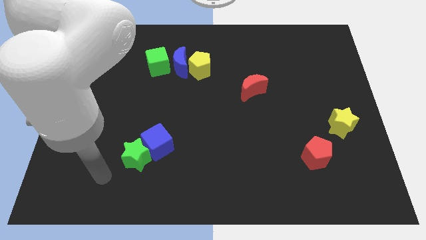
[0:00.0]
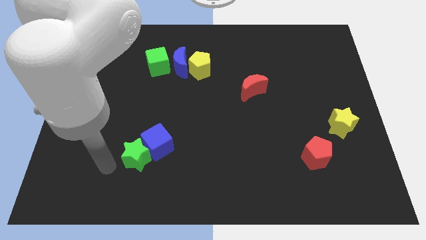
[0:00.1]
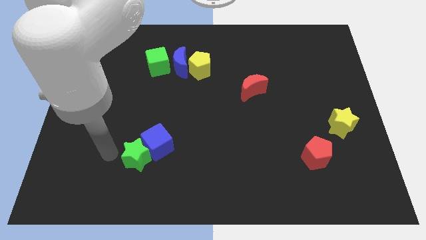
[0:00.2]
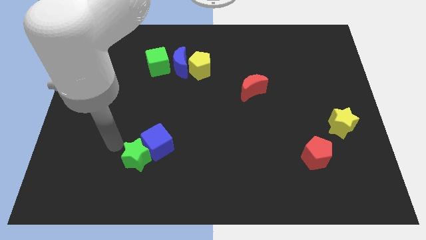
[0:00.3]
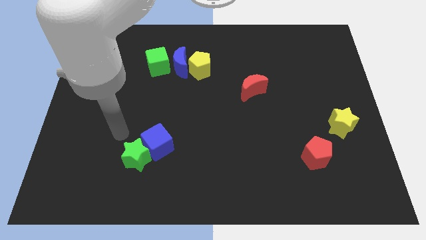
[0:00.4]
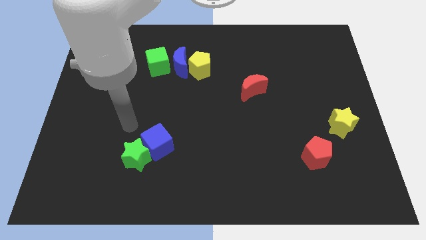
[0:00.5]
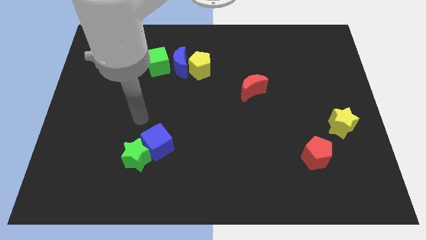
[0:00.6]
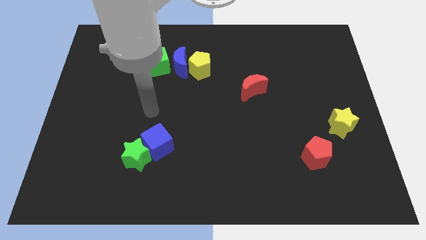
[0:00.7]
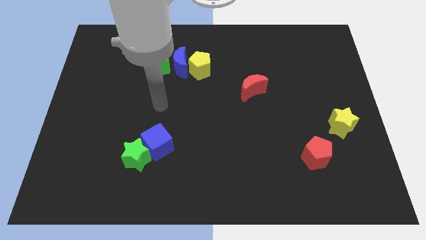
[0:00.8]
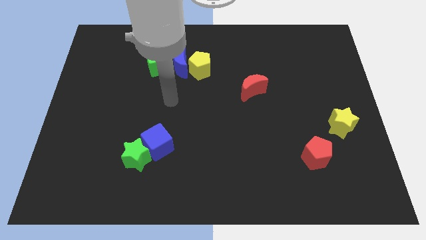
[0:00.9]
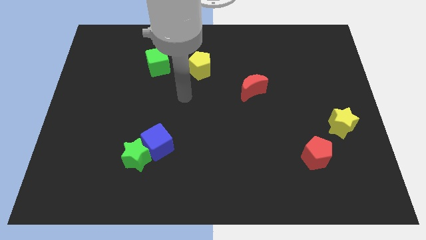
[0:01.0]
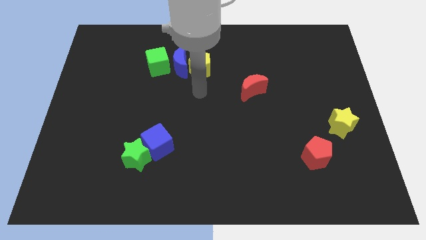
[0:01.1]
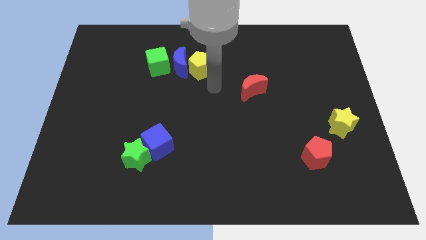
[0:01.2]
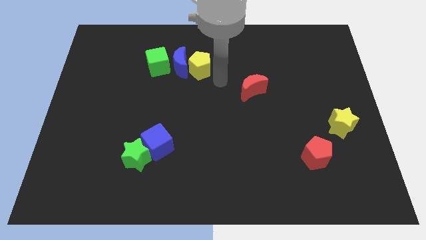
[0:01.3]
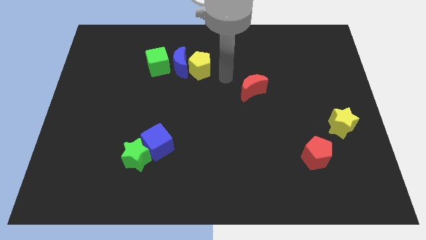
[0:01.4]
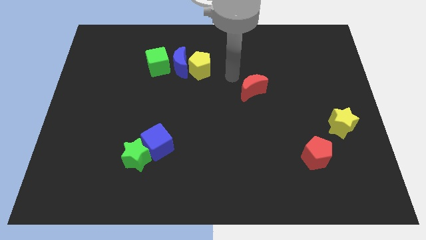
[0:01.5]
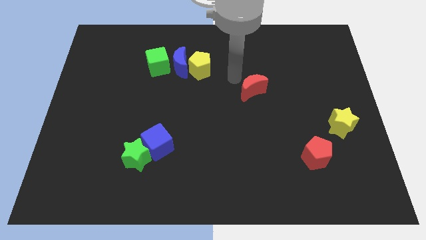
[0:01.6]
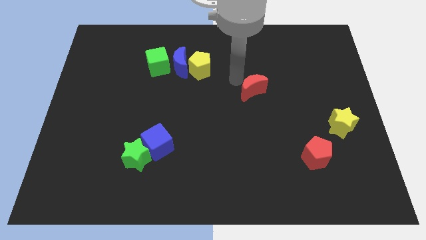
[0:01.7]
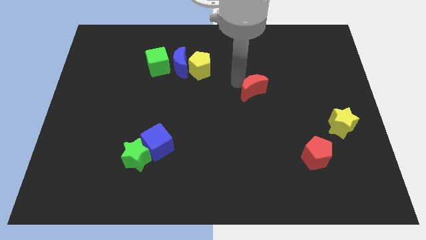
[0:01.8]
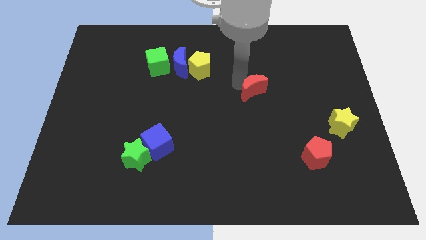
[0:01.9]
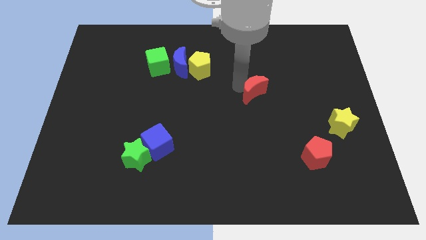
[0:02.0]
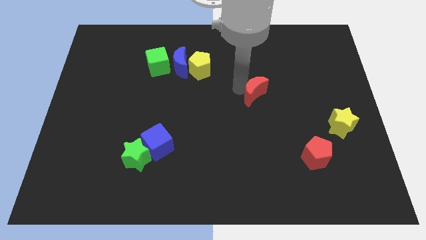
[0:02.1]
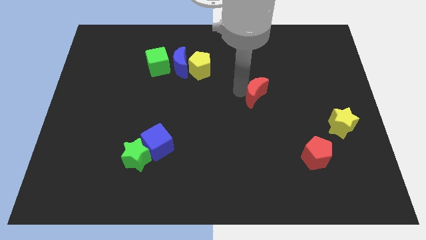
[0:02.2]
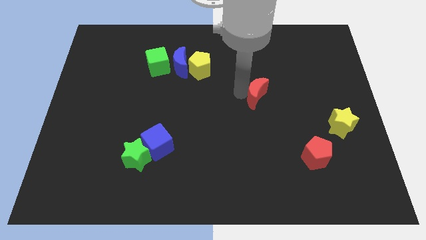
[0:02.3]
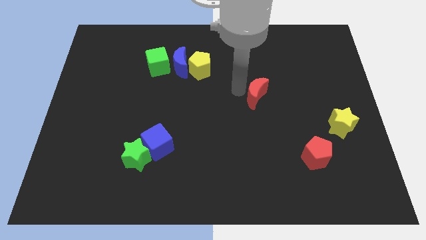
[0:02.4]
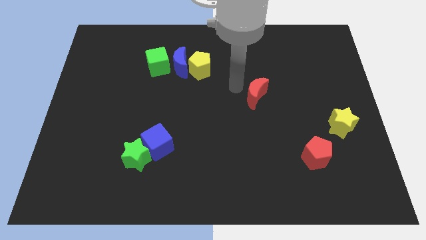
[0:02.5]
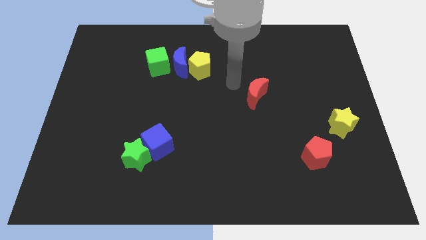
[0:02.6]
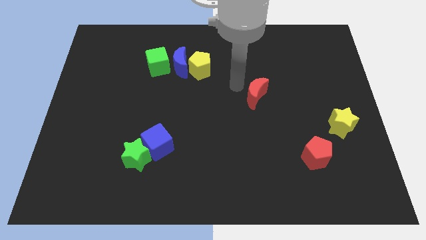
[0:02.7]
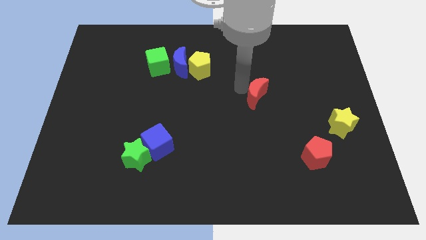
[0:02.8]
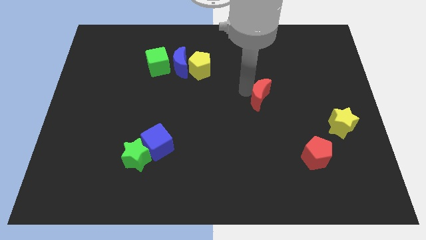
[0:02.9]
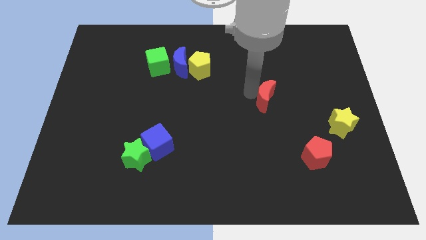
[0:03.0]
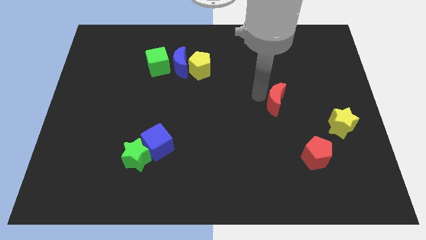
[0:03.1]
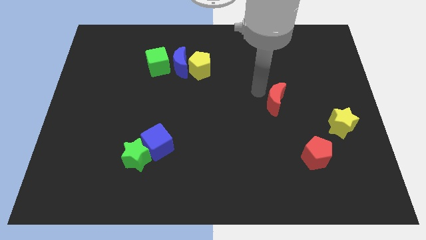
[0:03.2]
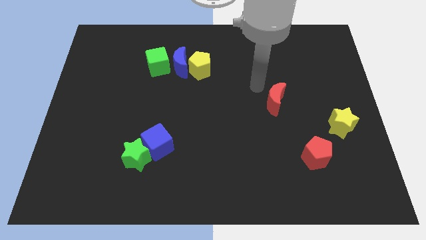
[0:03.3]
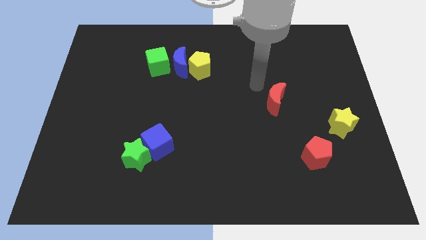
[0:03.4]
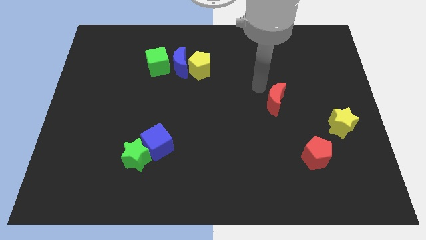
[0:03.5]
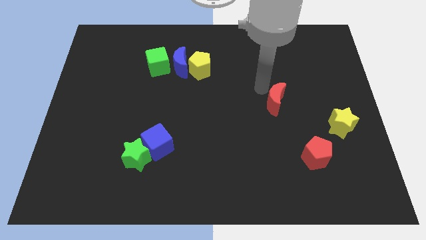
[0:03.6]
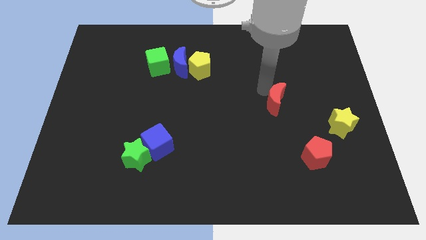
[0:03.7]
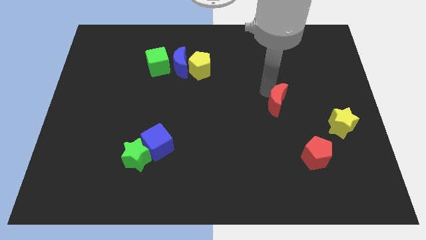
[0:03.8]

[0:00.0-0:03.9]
slide the red moon slightly down and right

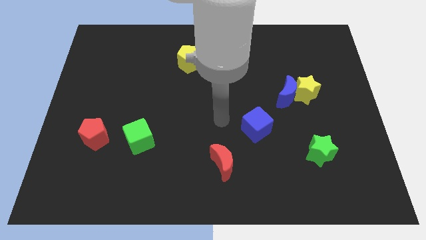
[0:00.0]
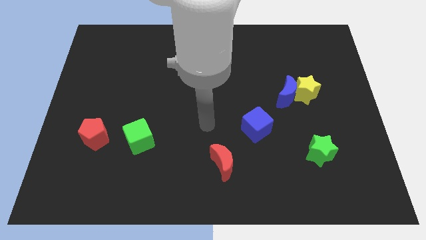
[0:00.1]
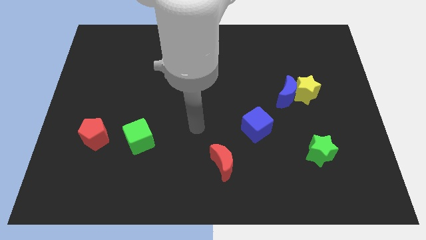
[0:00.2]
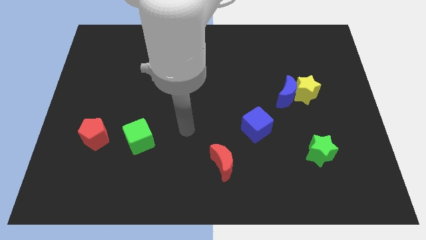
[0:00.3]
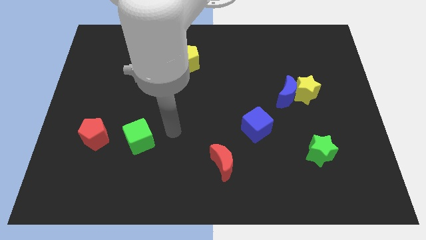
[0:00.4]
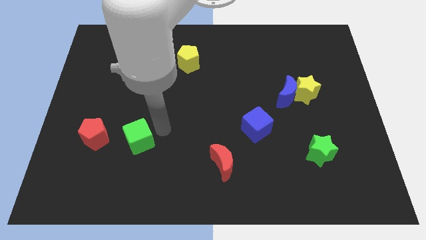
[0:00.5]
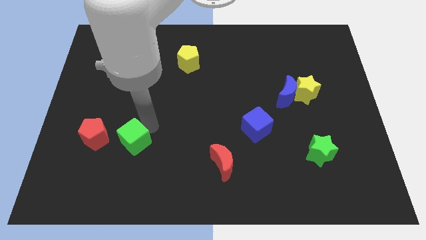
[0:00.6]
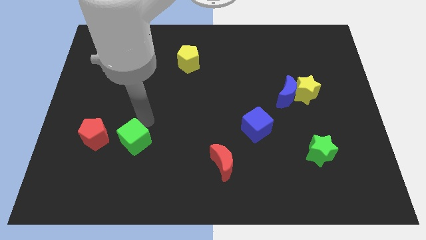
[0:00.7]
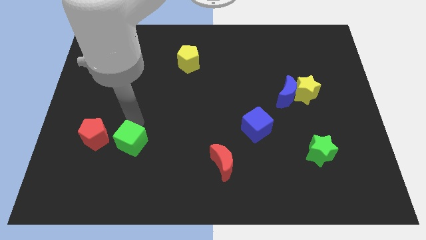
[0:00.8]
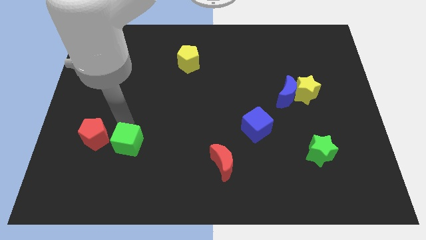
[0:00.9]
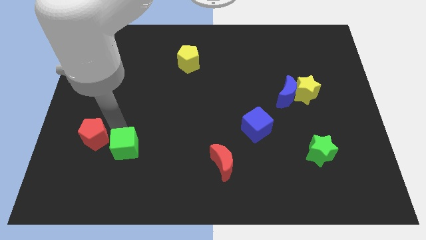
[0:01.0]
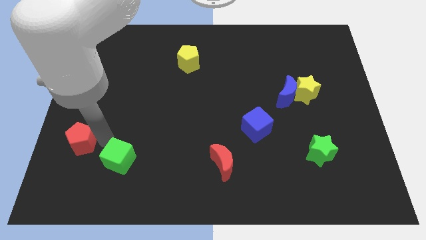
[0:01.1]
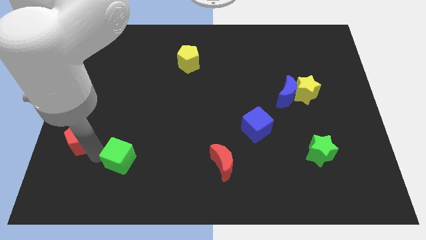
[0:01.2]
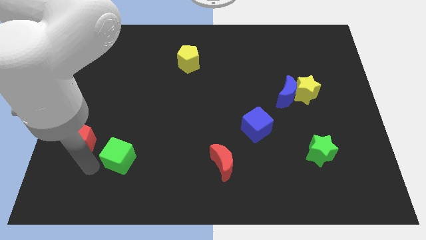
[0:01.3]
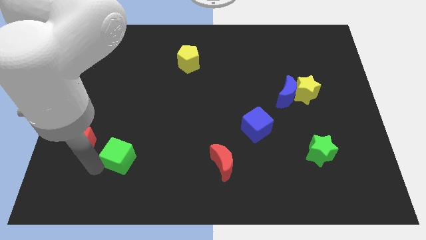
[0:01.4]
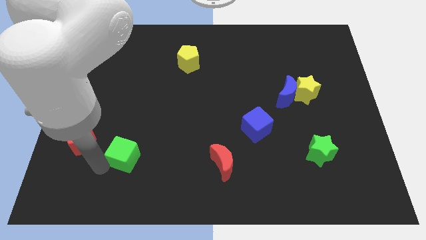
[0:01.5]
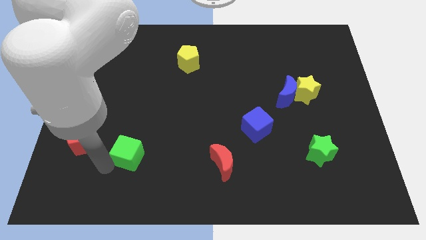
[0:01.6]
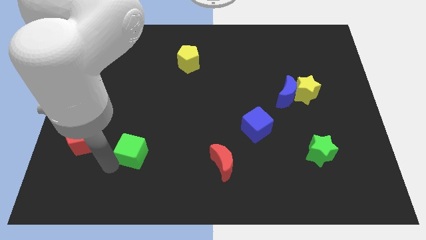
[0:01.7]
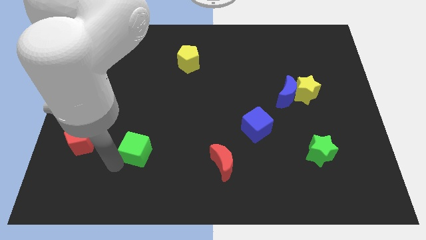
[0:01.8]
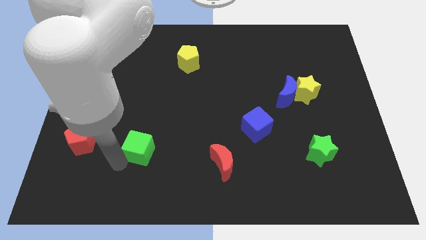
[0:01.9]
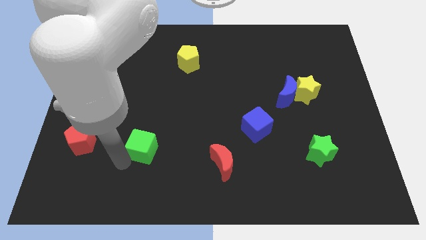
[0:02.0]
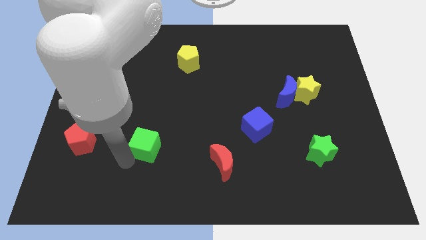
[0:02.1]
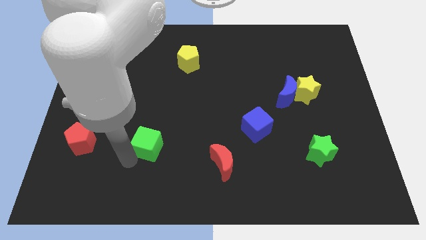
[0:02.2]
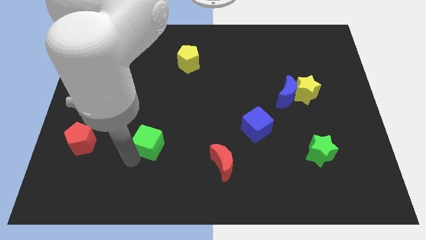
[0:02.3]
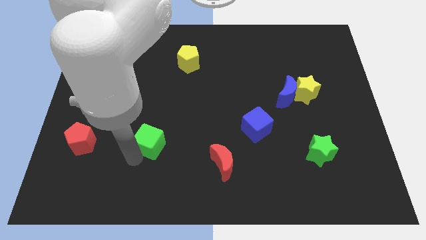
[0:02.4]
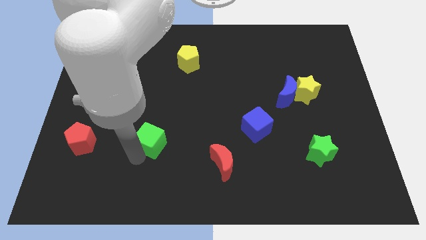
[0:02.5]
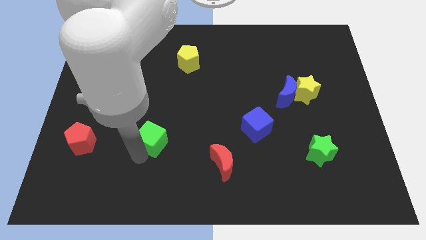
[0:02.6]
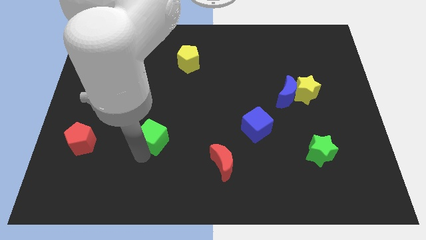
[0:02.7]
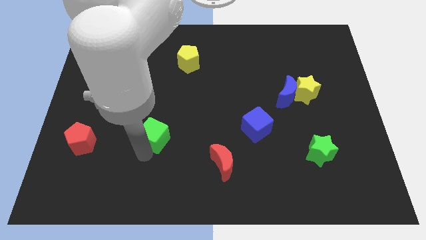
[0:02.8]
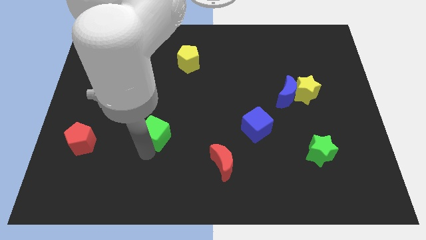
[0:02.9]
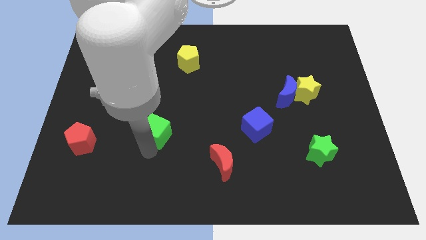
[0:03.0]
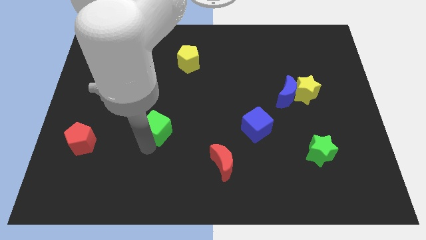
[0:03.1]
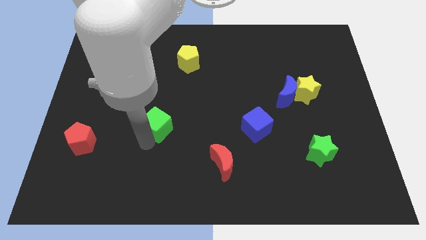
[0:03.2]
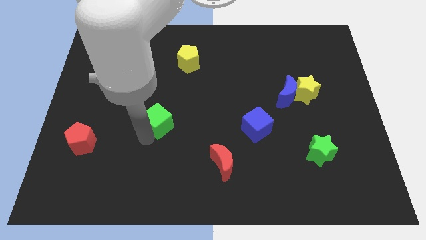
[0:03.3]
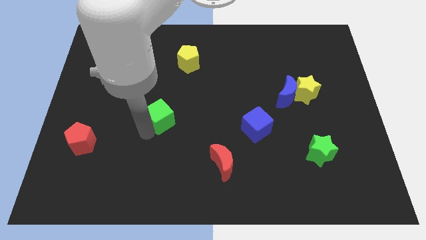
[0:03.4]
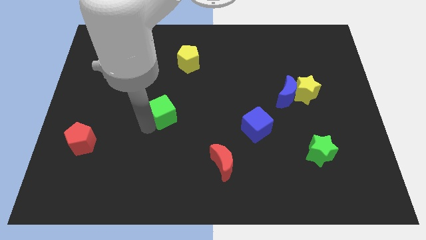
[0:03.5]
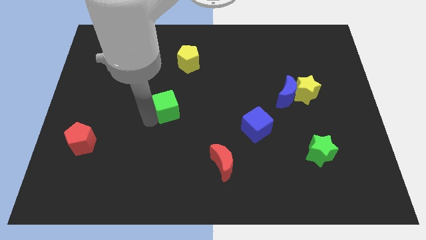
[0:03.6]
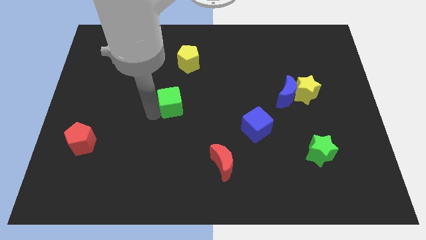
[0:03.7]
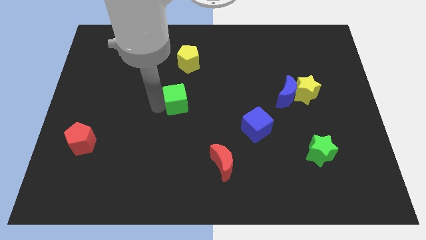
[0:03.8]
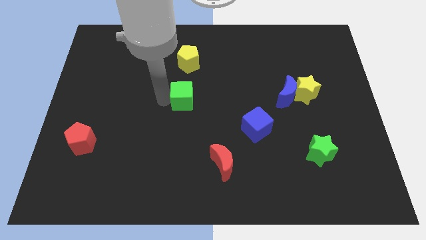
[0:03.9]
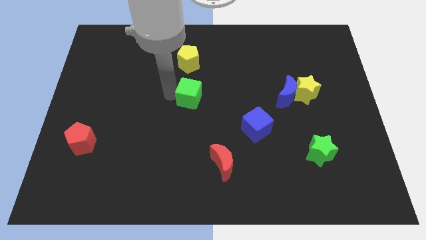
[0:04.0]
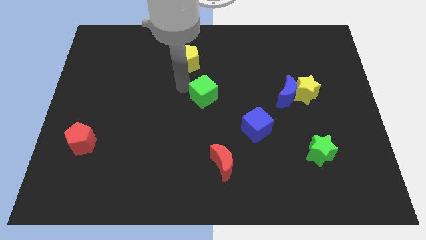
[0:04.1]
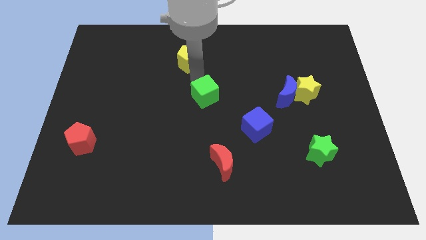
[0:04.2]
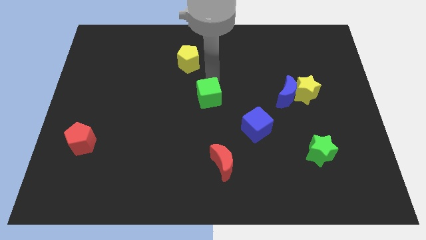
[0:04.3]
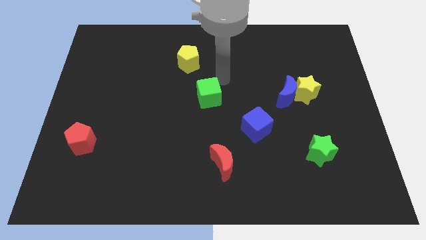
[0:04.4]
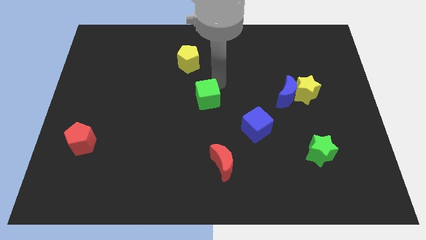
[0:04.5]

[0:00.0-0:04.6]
push the green cube to the right somewhat
